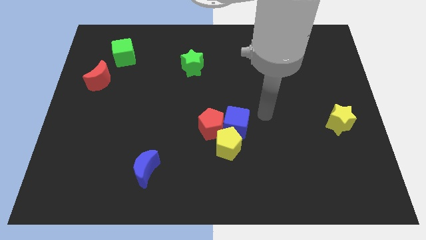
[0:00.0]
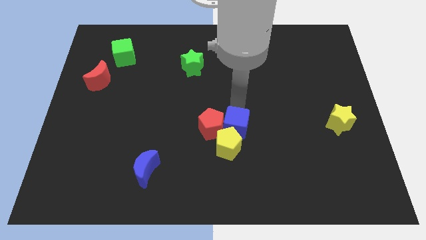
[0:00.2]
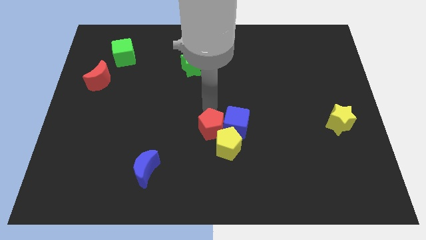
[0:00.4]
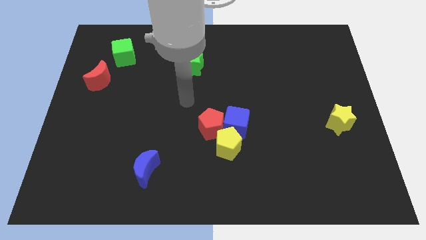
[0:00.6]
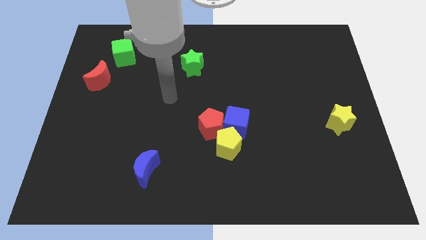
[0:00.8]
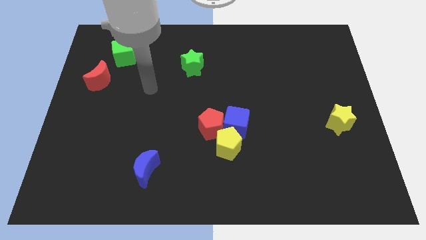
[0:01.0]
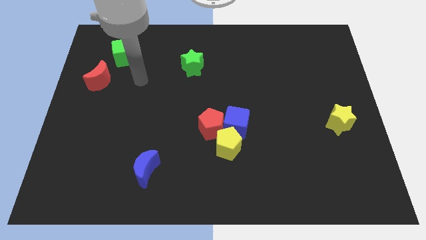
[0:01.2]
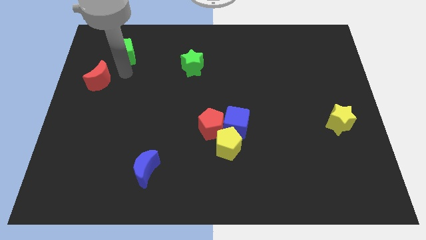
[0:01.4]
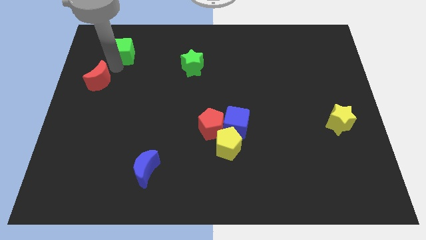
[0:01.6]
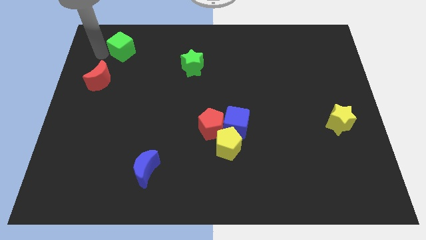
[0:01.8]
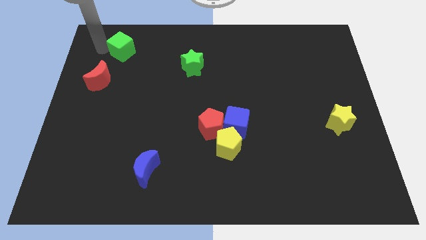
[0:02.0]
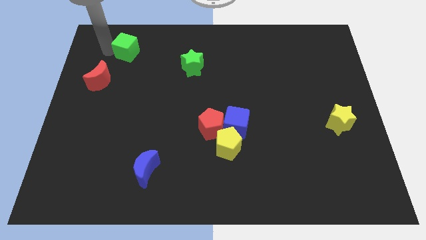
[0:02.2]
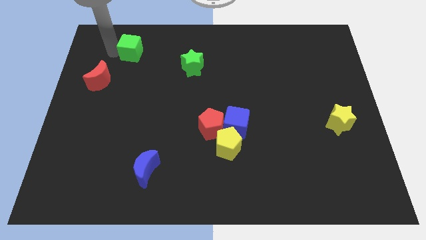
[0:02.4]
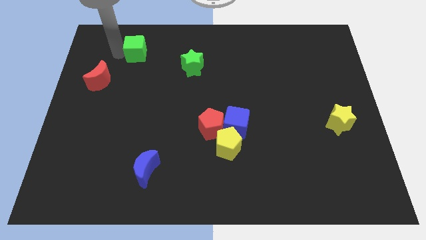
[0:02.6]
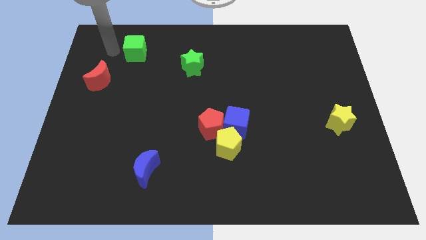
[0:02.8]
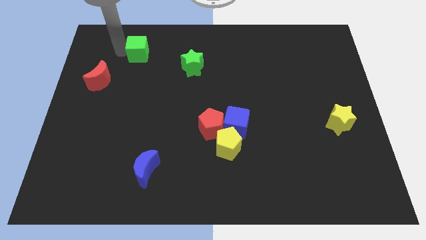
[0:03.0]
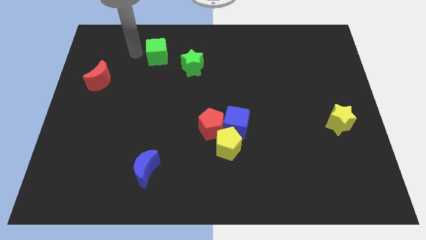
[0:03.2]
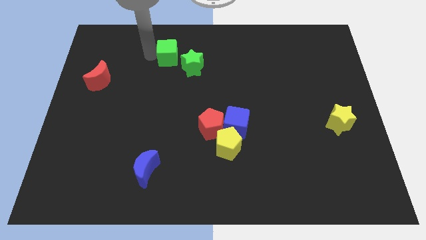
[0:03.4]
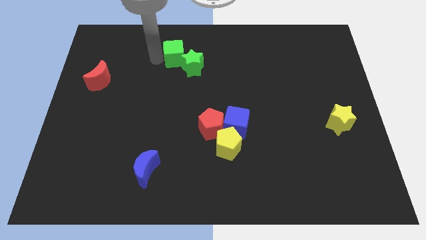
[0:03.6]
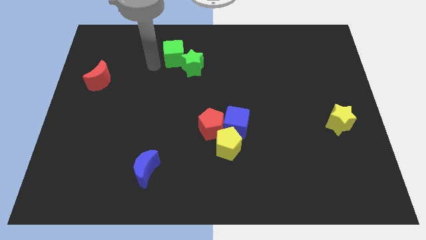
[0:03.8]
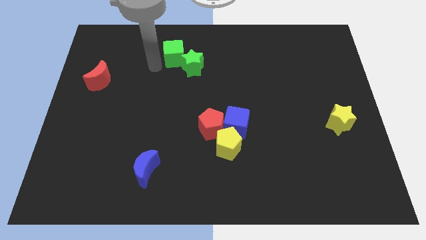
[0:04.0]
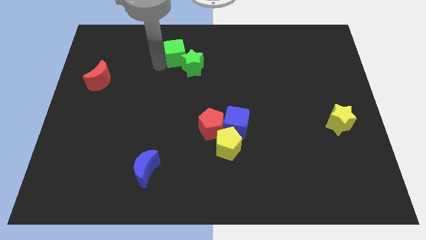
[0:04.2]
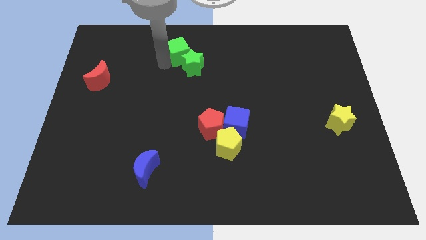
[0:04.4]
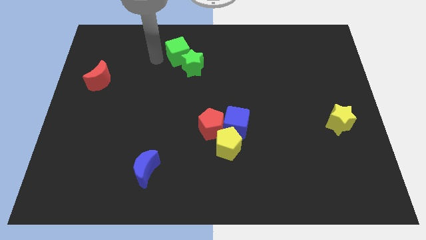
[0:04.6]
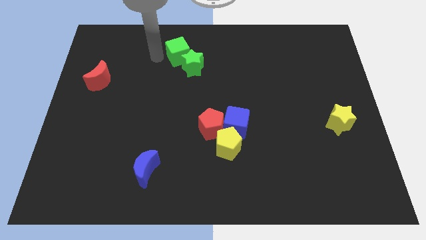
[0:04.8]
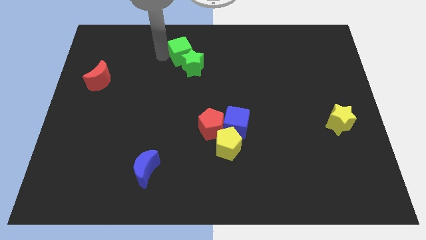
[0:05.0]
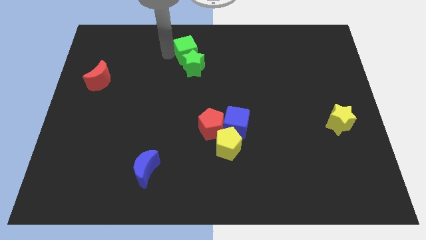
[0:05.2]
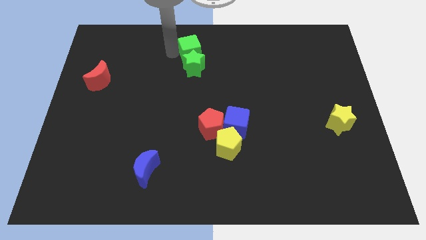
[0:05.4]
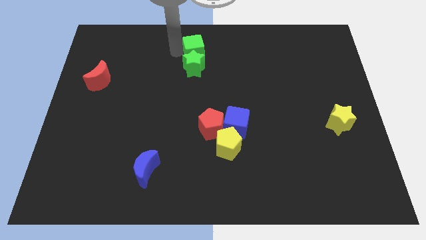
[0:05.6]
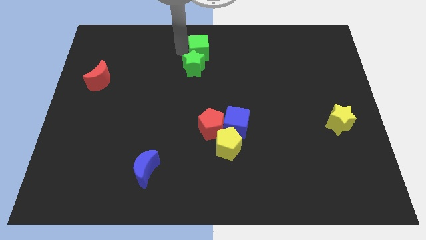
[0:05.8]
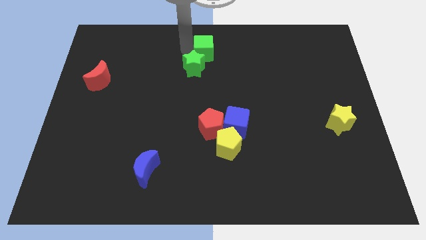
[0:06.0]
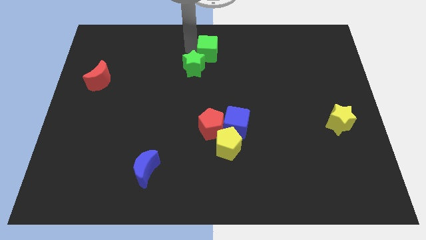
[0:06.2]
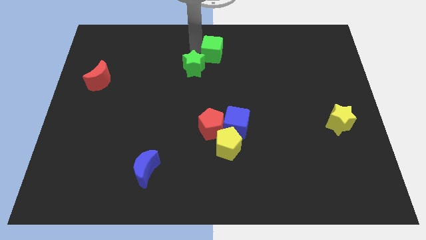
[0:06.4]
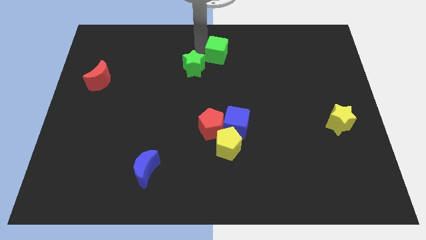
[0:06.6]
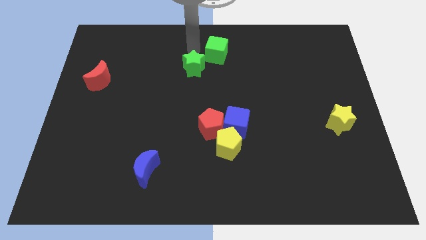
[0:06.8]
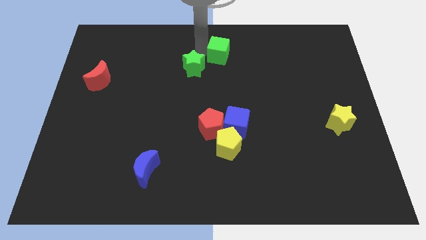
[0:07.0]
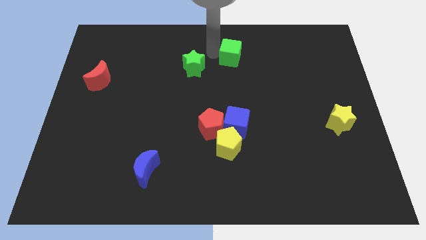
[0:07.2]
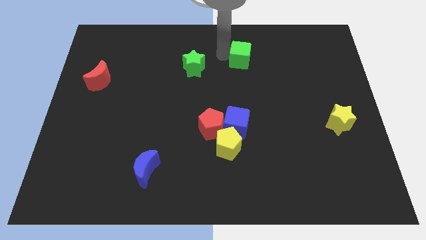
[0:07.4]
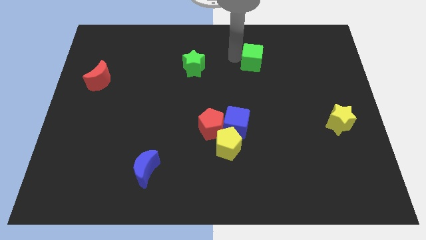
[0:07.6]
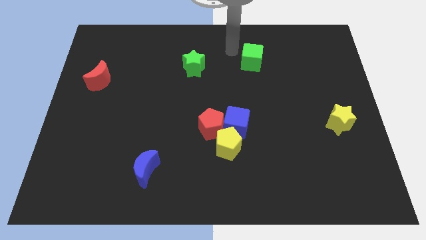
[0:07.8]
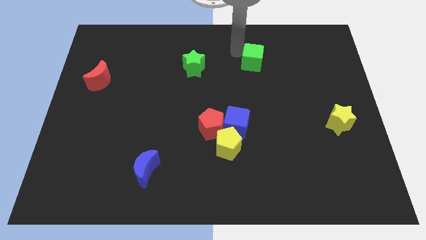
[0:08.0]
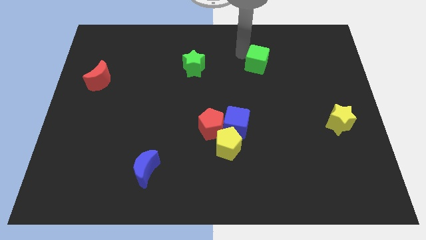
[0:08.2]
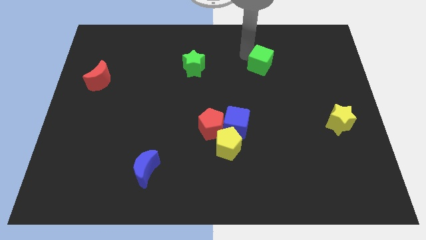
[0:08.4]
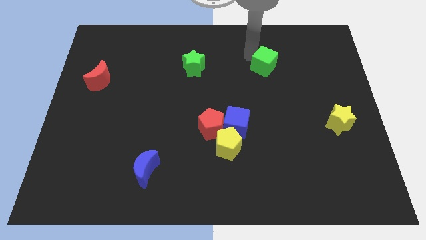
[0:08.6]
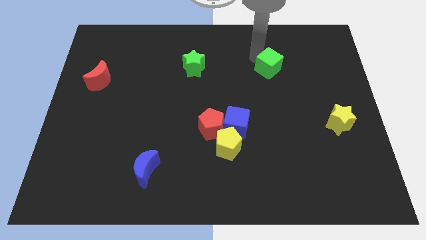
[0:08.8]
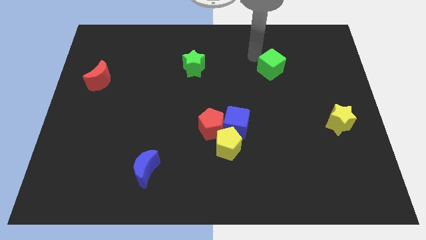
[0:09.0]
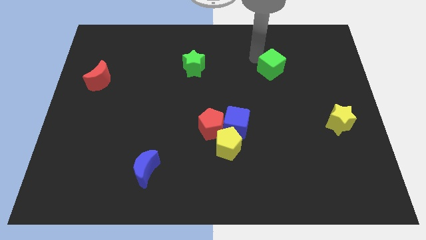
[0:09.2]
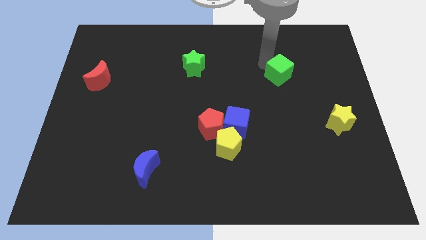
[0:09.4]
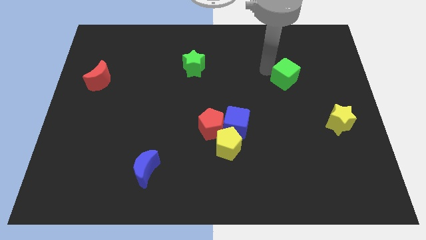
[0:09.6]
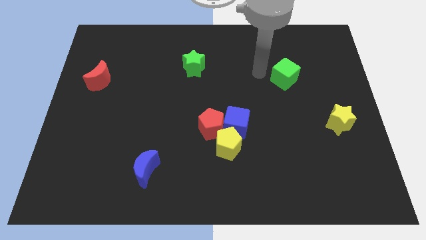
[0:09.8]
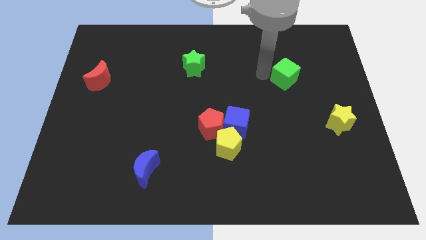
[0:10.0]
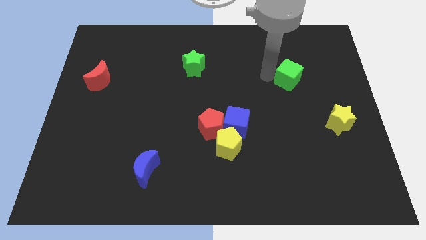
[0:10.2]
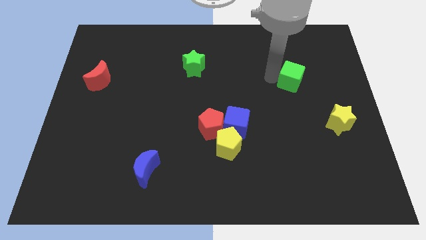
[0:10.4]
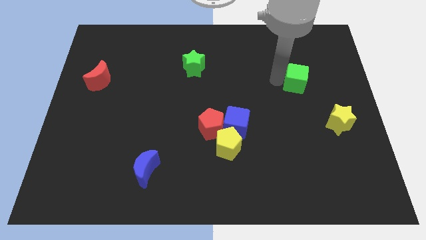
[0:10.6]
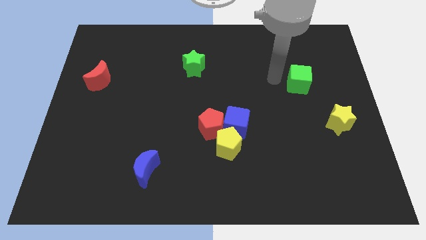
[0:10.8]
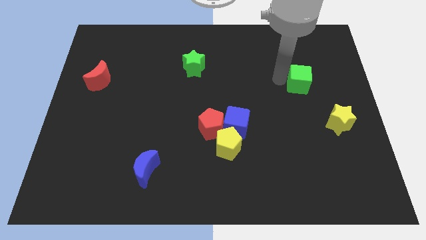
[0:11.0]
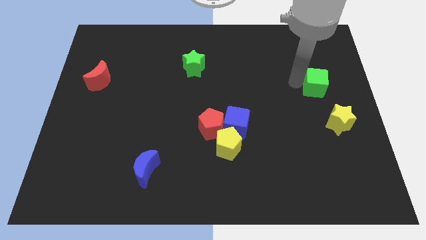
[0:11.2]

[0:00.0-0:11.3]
put the green cube to the top of the yellow star

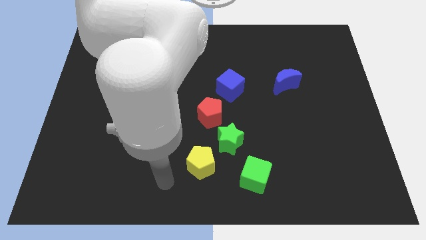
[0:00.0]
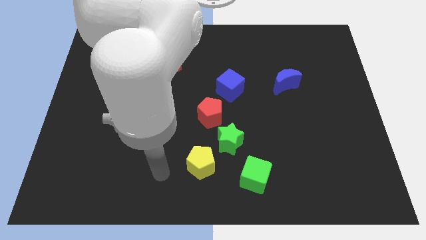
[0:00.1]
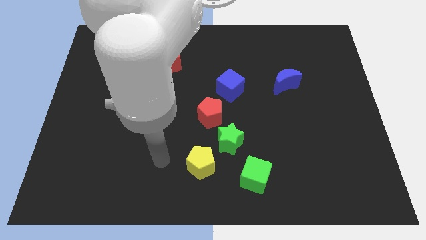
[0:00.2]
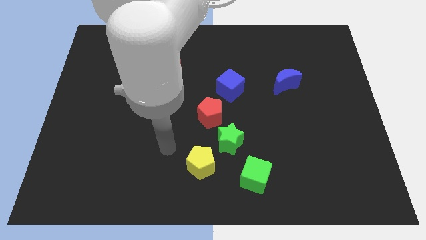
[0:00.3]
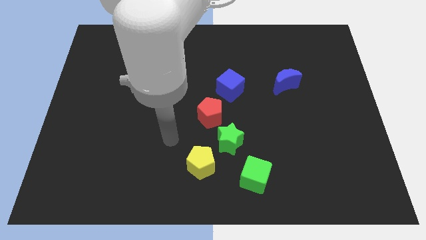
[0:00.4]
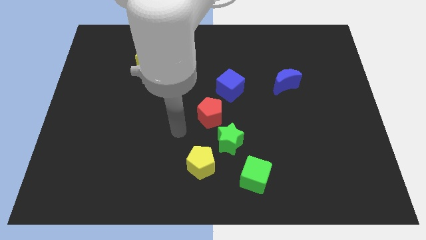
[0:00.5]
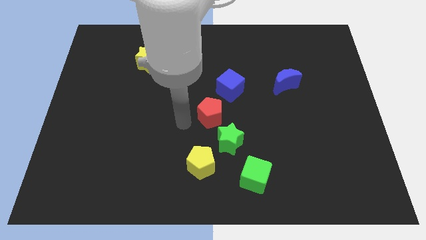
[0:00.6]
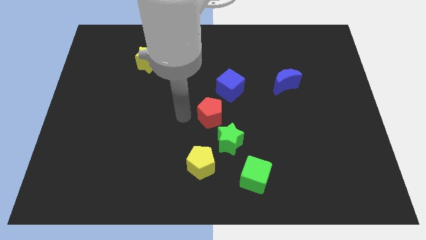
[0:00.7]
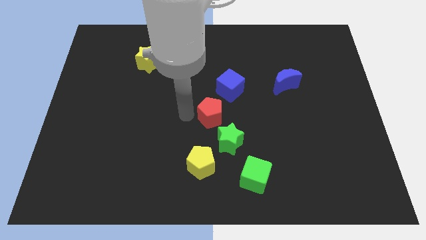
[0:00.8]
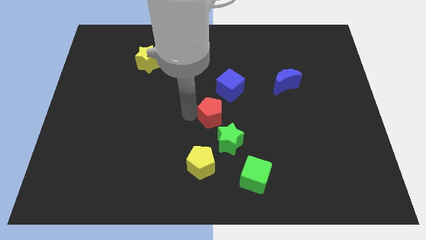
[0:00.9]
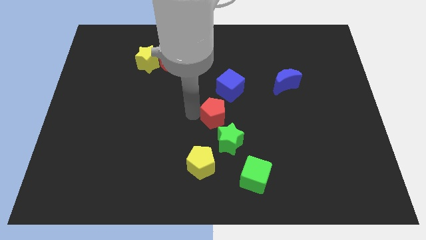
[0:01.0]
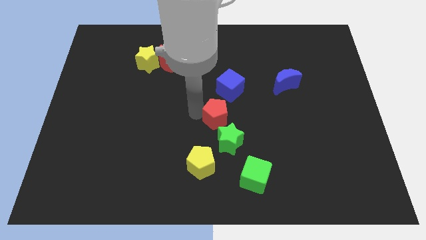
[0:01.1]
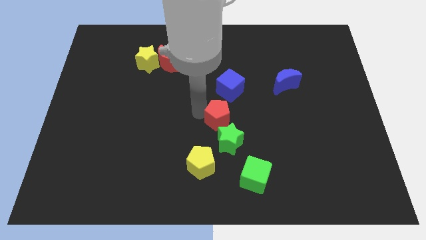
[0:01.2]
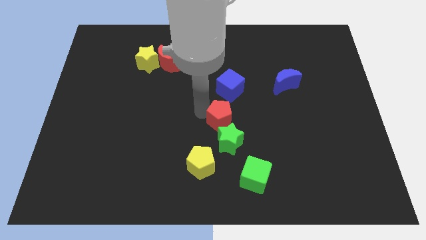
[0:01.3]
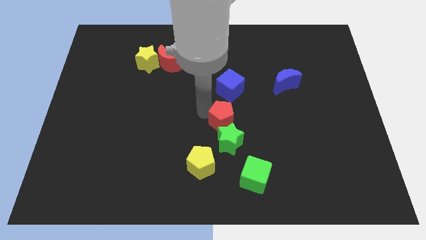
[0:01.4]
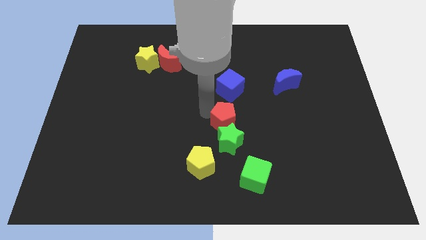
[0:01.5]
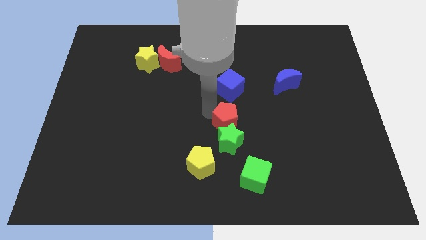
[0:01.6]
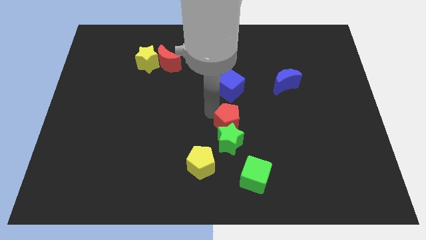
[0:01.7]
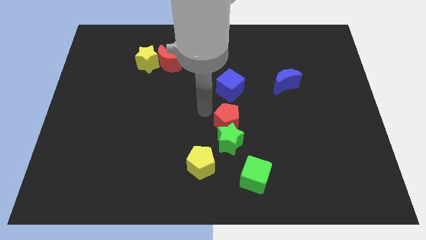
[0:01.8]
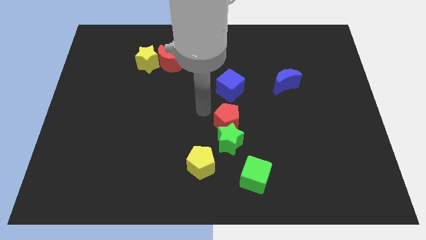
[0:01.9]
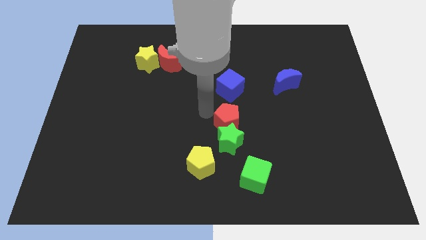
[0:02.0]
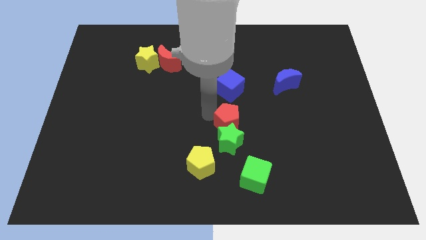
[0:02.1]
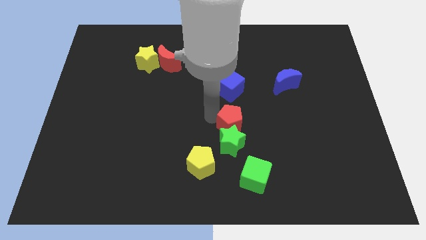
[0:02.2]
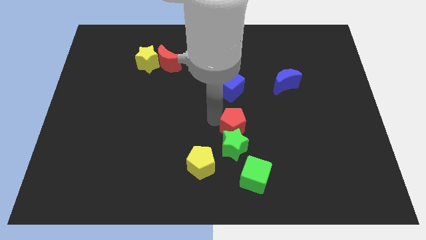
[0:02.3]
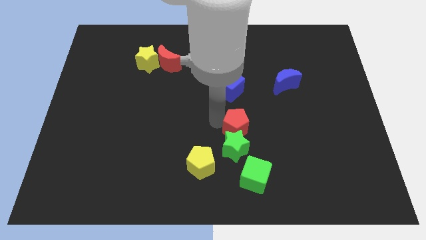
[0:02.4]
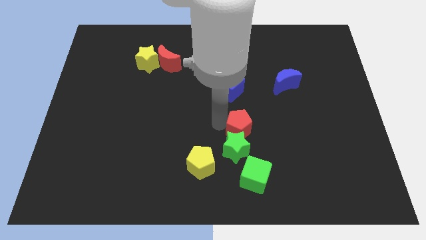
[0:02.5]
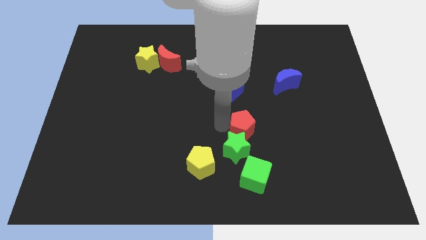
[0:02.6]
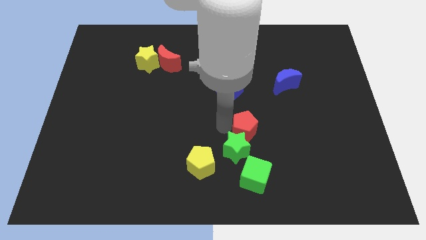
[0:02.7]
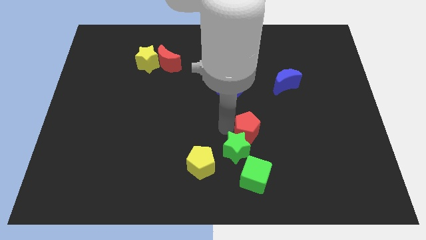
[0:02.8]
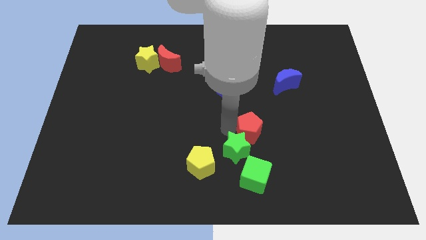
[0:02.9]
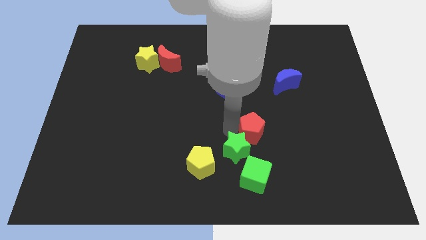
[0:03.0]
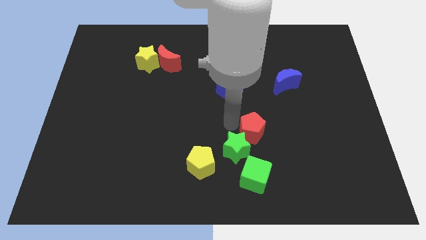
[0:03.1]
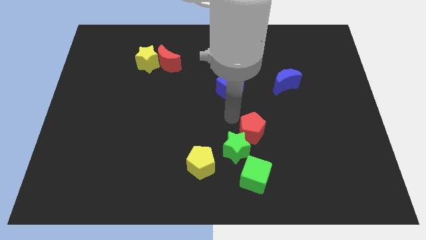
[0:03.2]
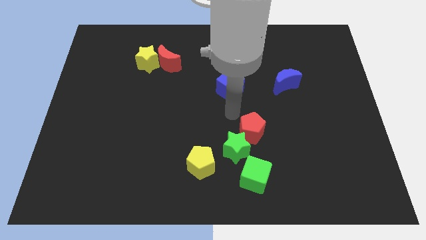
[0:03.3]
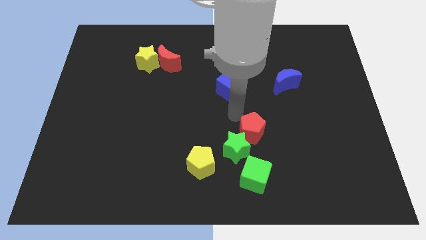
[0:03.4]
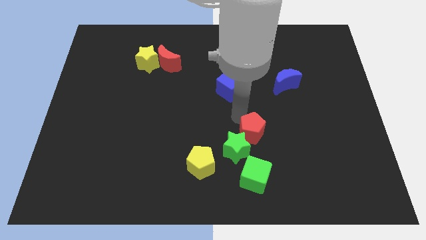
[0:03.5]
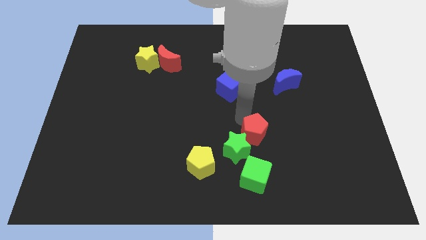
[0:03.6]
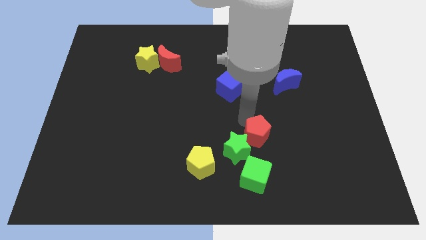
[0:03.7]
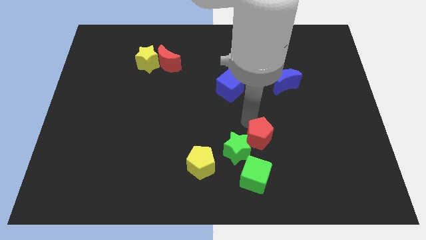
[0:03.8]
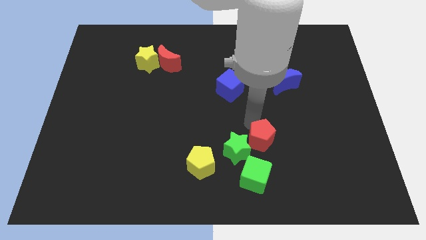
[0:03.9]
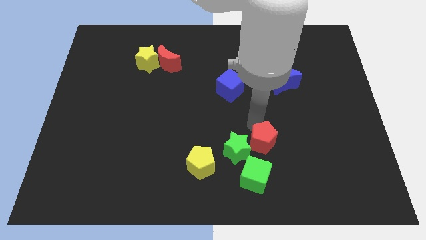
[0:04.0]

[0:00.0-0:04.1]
move the red pentagon to the top right of the green cube
